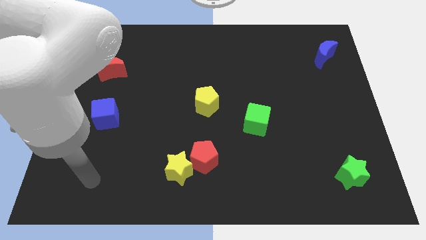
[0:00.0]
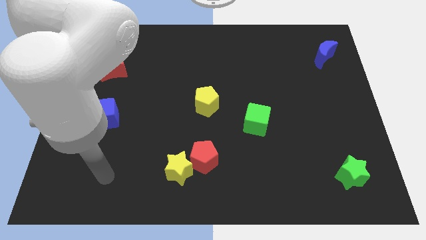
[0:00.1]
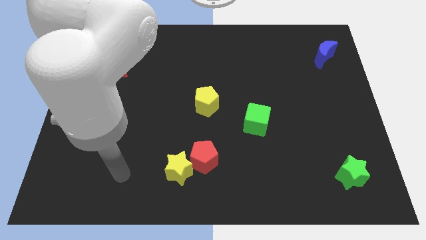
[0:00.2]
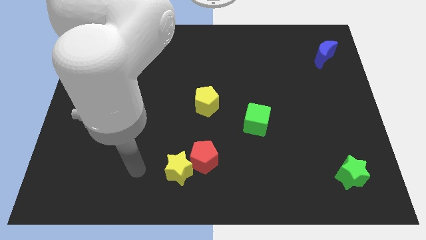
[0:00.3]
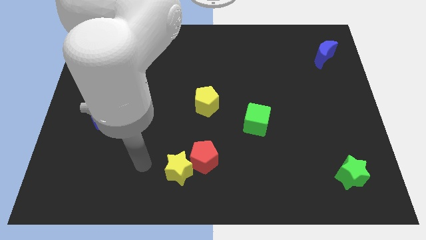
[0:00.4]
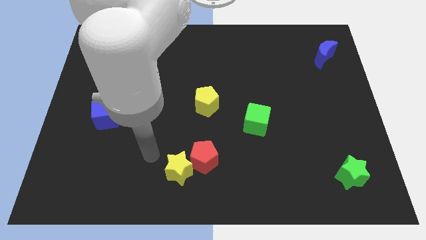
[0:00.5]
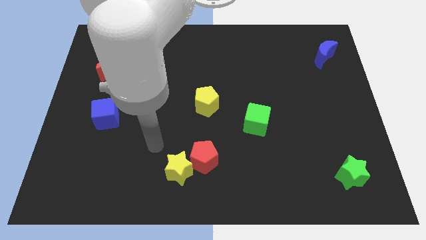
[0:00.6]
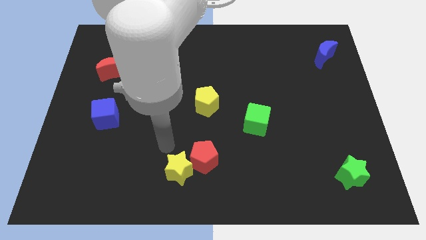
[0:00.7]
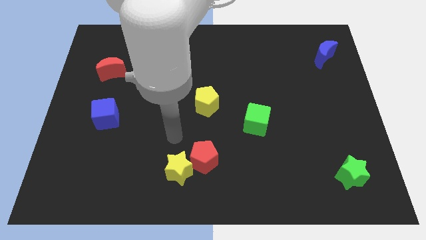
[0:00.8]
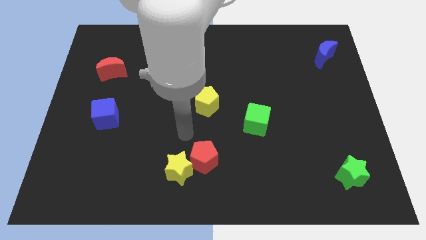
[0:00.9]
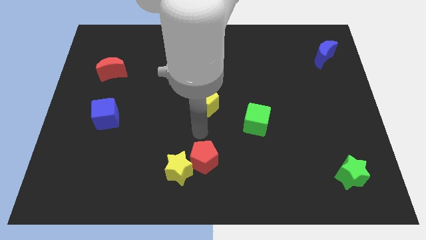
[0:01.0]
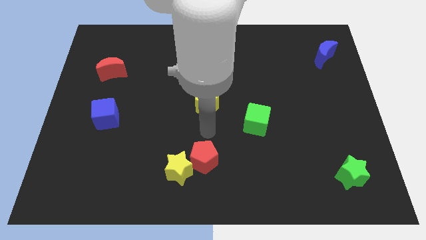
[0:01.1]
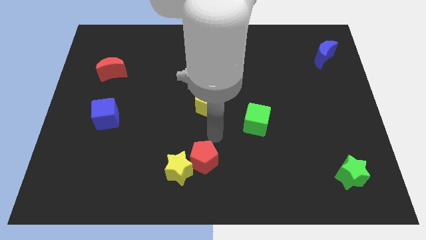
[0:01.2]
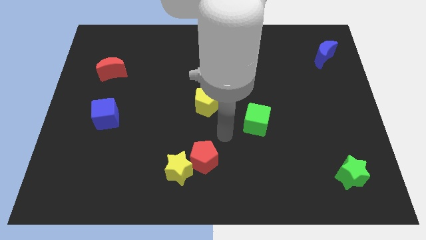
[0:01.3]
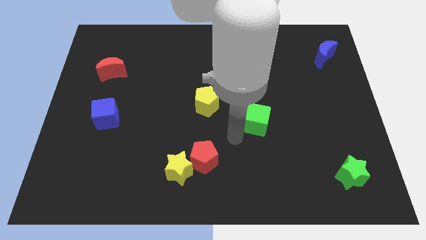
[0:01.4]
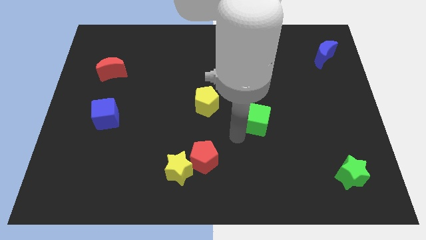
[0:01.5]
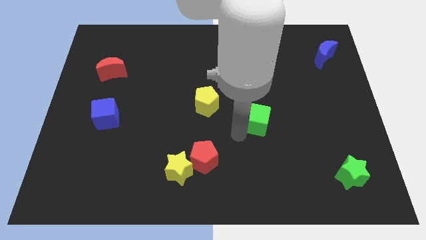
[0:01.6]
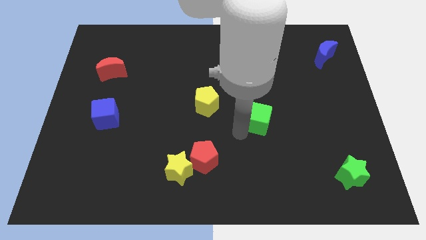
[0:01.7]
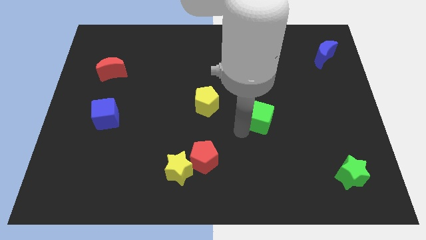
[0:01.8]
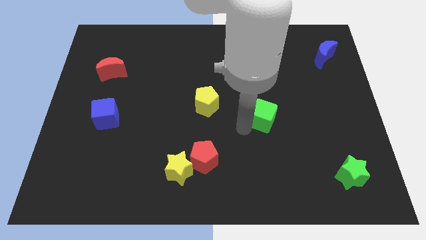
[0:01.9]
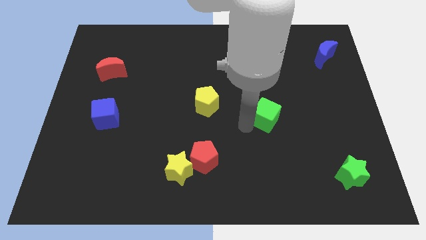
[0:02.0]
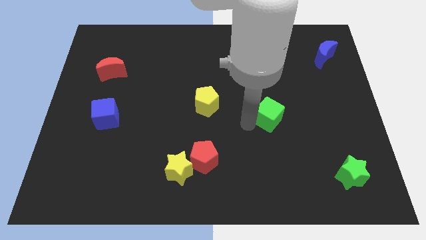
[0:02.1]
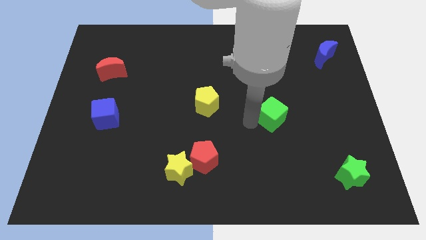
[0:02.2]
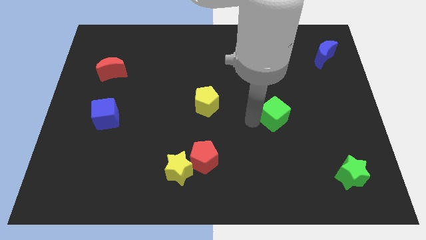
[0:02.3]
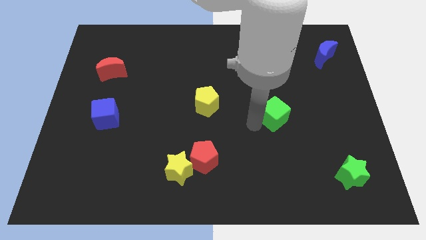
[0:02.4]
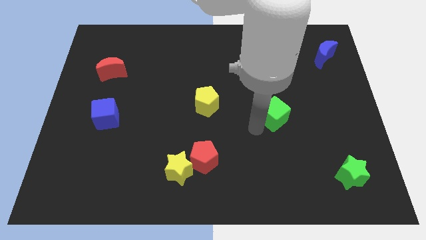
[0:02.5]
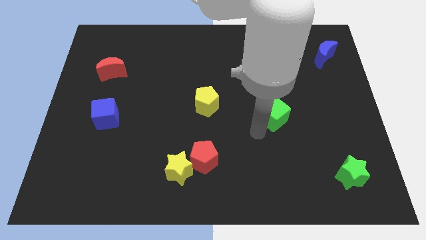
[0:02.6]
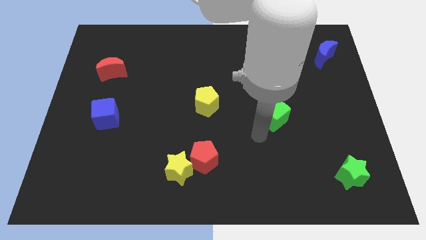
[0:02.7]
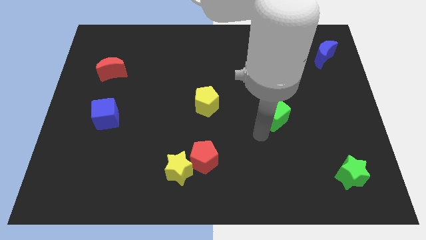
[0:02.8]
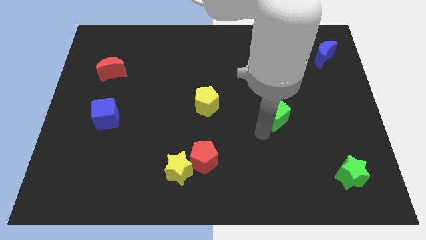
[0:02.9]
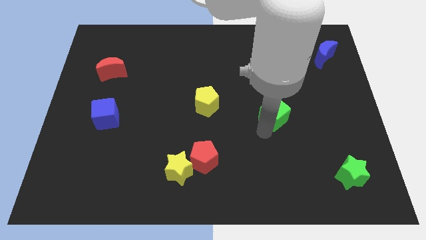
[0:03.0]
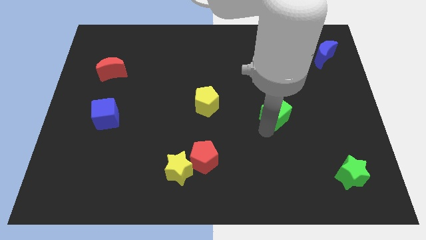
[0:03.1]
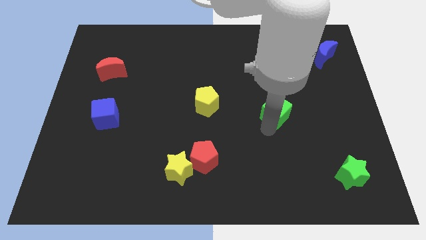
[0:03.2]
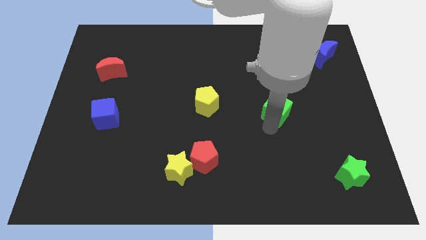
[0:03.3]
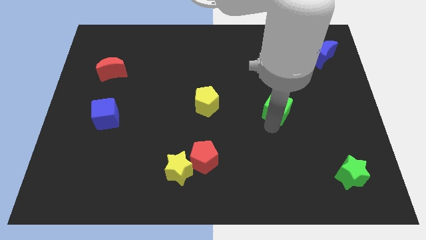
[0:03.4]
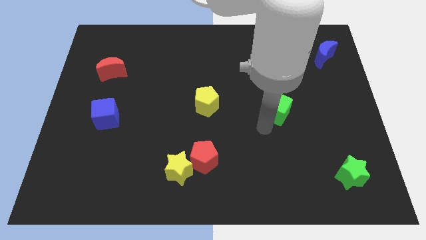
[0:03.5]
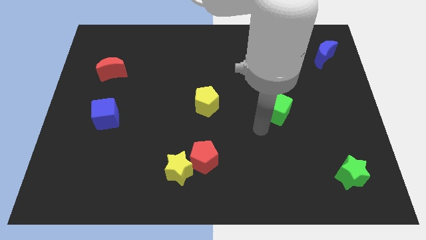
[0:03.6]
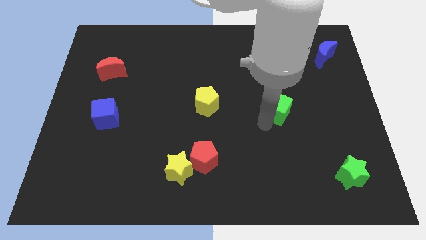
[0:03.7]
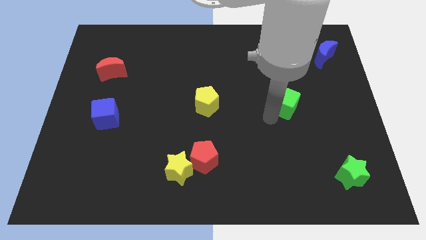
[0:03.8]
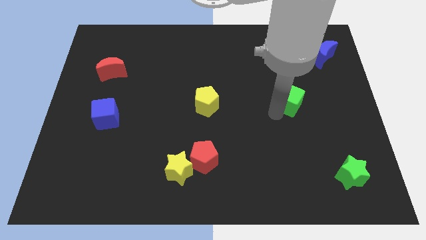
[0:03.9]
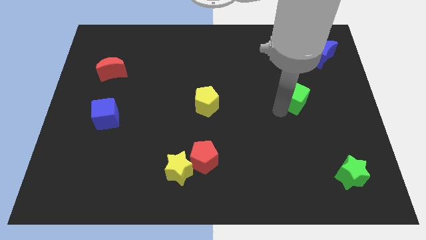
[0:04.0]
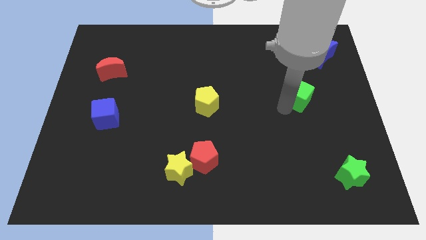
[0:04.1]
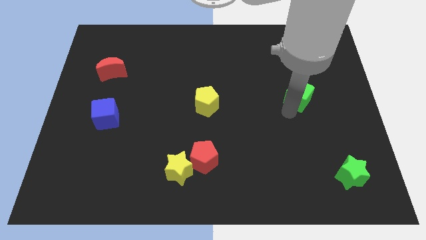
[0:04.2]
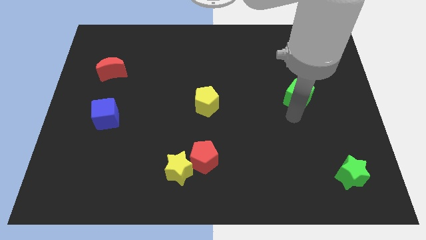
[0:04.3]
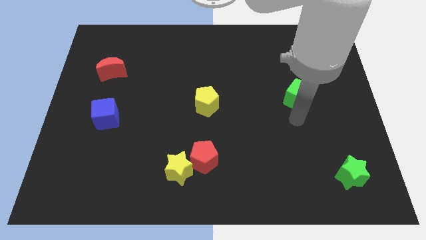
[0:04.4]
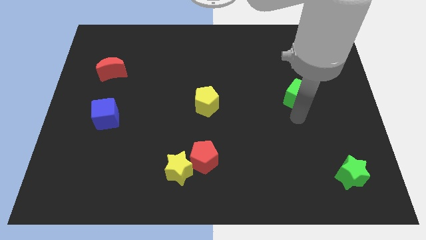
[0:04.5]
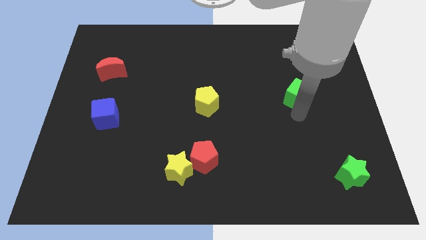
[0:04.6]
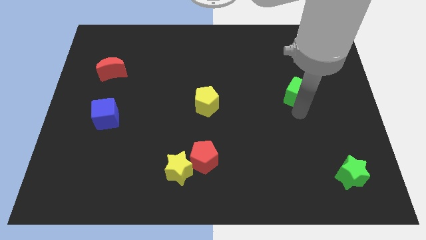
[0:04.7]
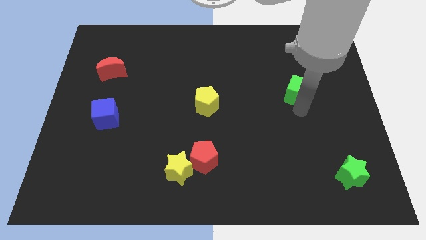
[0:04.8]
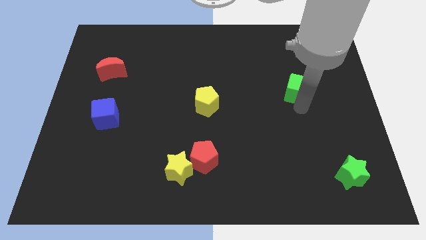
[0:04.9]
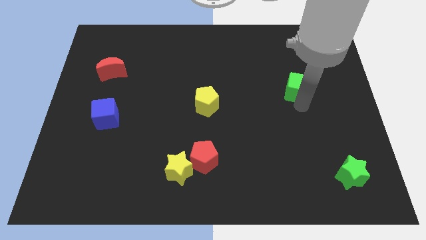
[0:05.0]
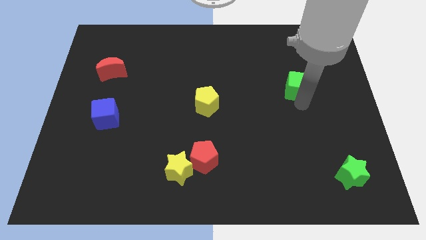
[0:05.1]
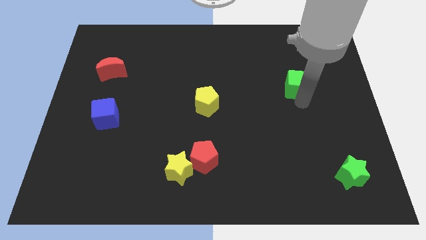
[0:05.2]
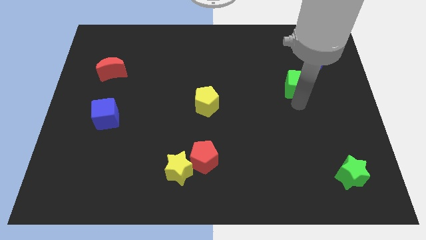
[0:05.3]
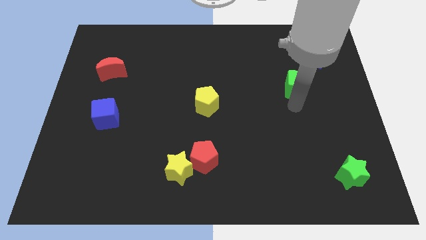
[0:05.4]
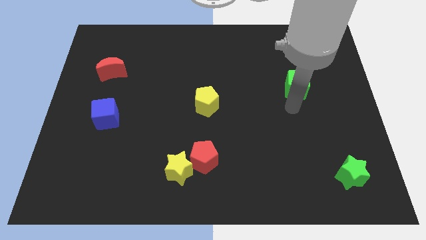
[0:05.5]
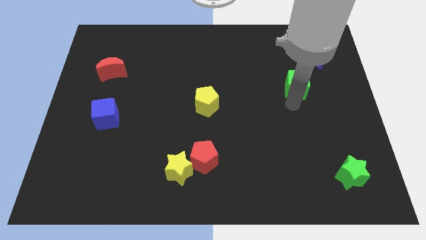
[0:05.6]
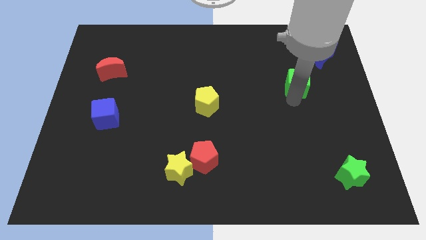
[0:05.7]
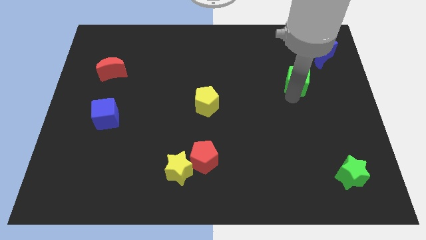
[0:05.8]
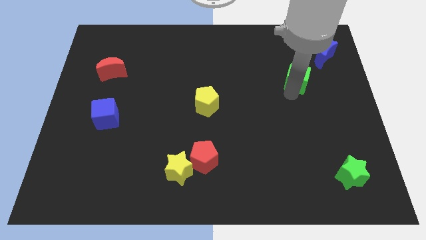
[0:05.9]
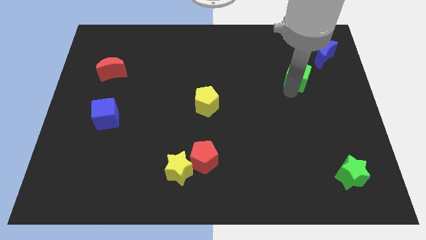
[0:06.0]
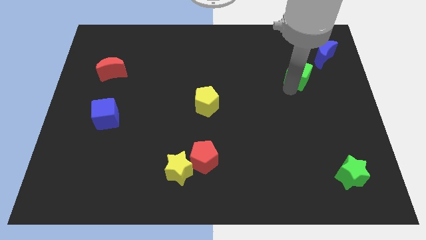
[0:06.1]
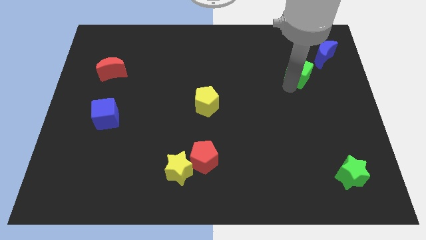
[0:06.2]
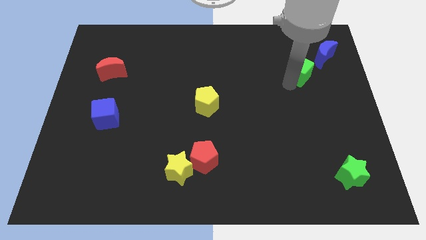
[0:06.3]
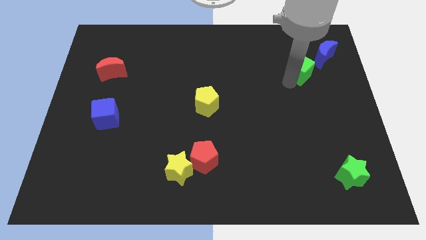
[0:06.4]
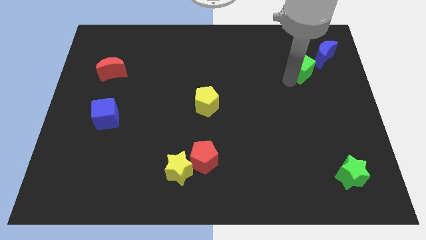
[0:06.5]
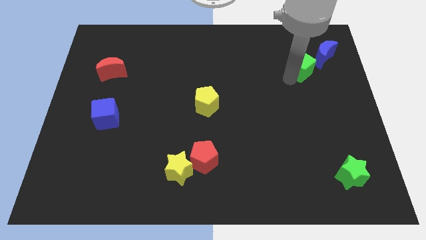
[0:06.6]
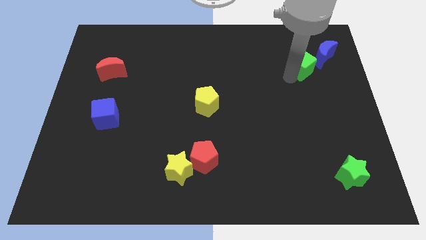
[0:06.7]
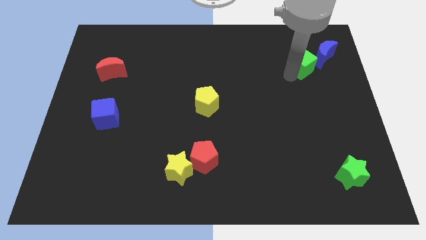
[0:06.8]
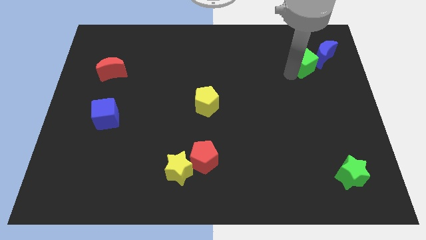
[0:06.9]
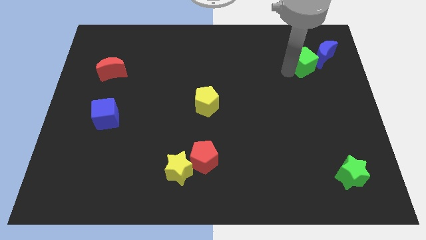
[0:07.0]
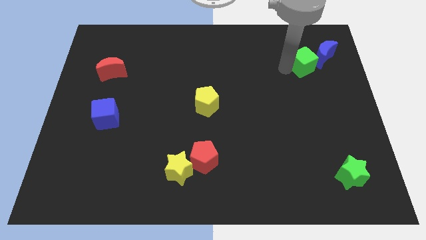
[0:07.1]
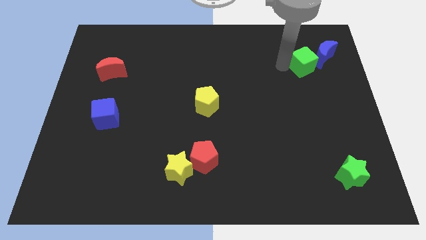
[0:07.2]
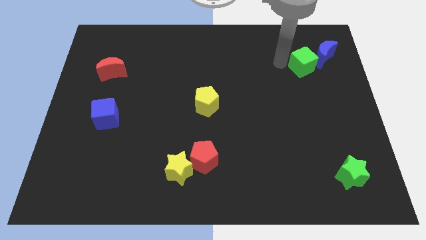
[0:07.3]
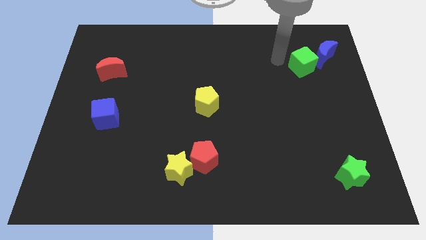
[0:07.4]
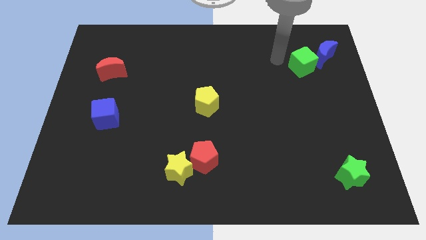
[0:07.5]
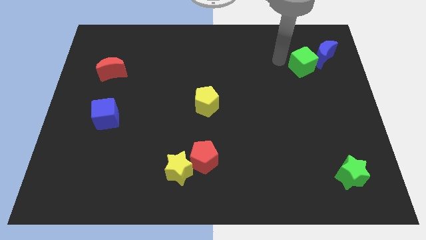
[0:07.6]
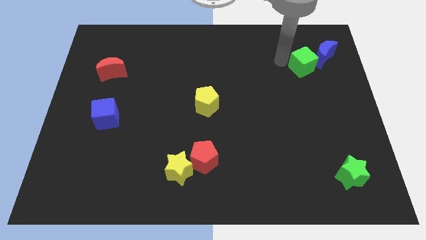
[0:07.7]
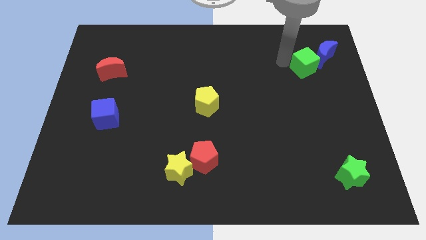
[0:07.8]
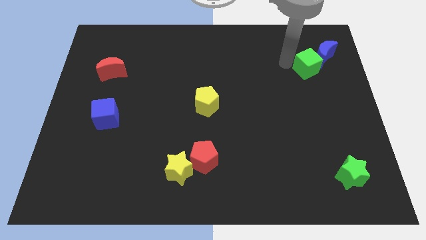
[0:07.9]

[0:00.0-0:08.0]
push the green cube to the blue moon
